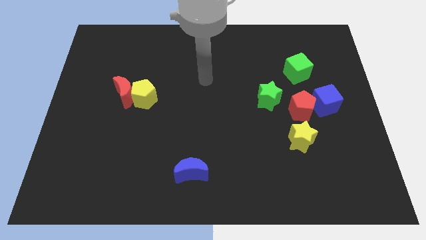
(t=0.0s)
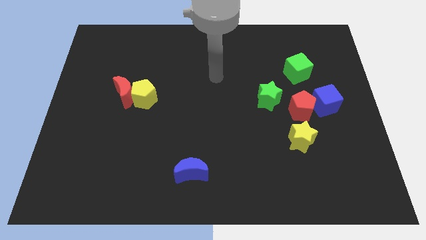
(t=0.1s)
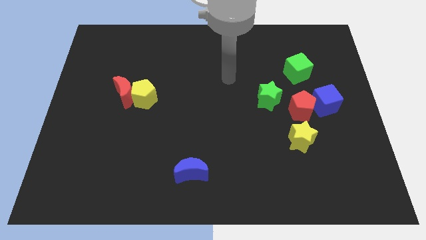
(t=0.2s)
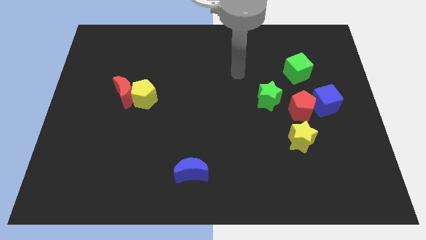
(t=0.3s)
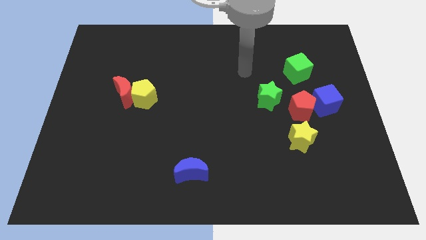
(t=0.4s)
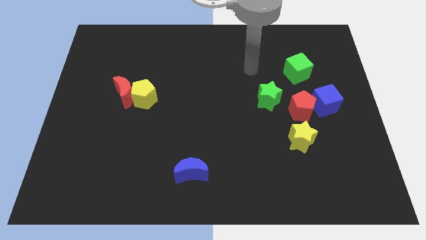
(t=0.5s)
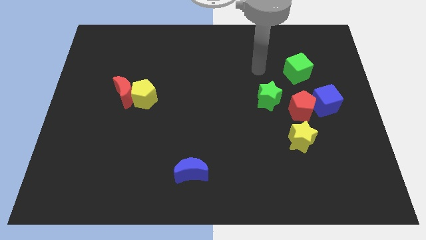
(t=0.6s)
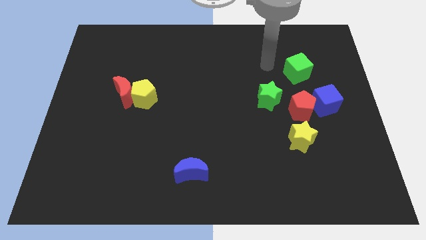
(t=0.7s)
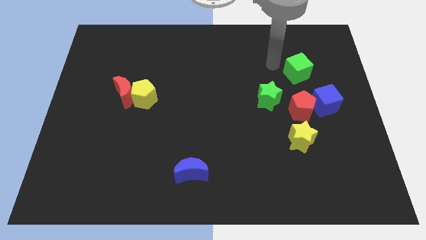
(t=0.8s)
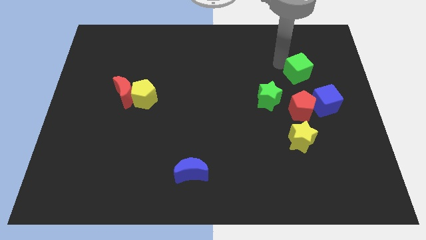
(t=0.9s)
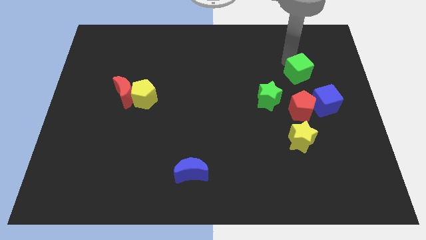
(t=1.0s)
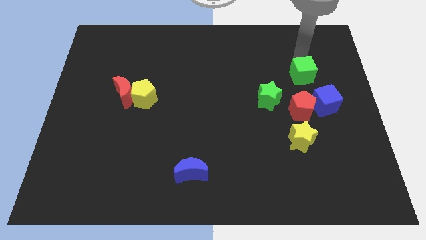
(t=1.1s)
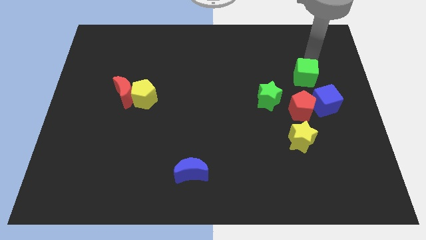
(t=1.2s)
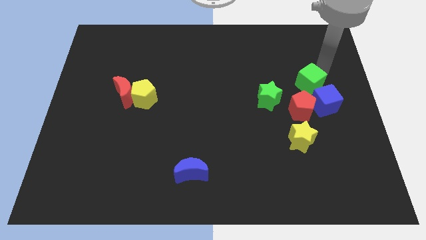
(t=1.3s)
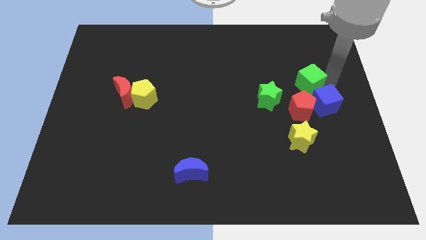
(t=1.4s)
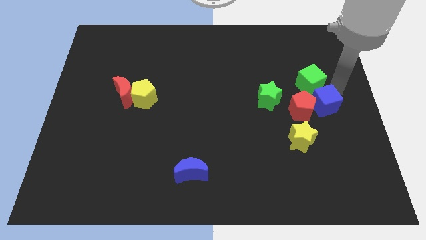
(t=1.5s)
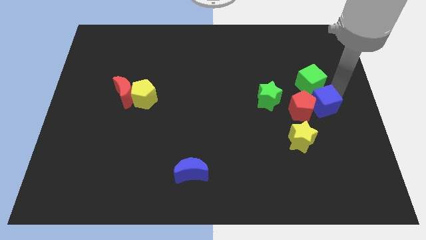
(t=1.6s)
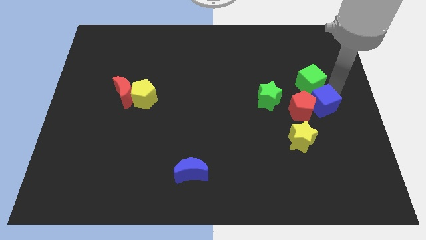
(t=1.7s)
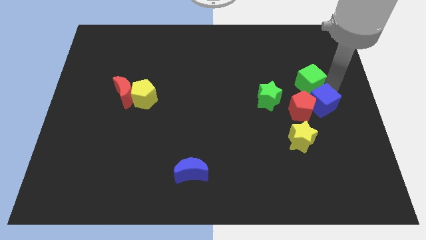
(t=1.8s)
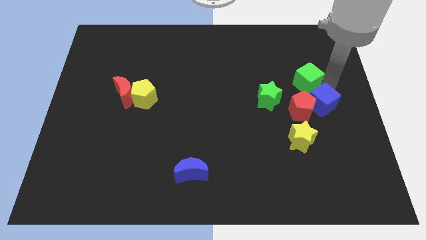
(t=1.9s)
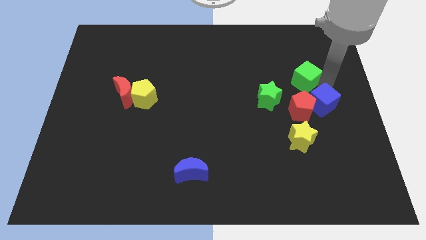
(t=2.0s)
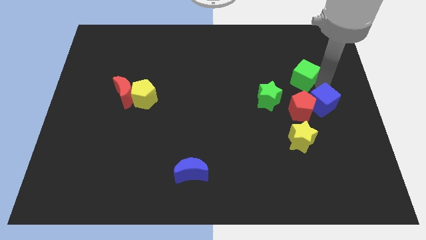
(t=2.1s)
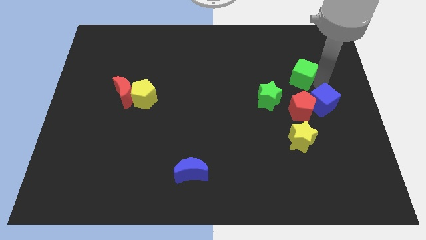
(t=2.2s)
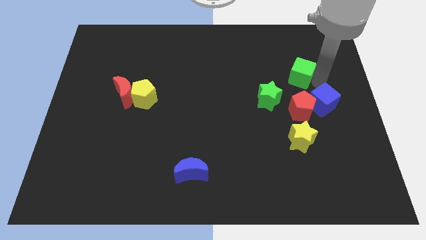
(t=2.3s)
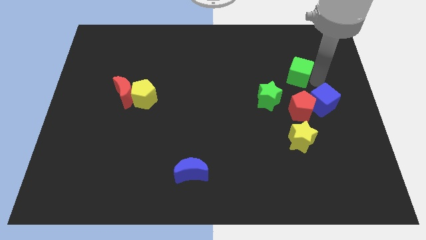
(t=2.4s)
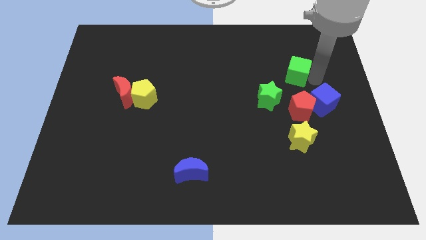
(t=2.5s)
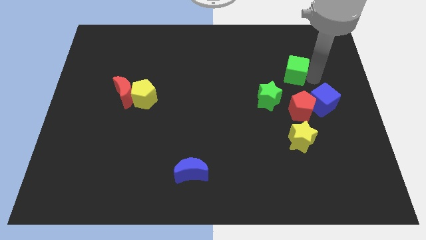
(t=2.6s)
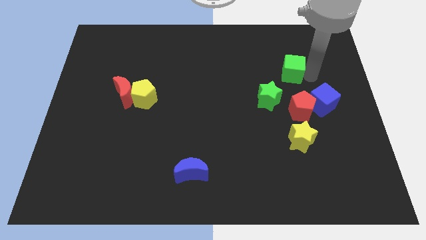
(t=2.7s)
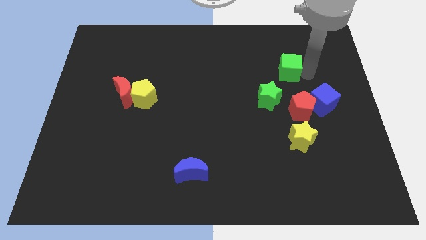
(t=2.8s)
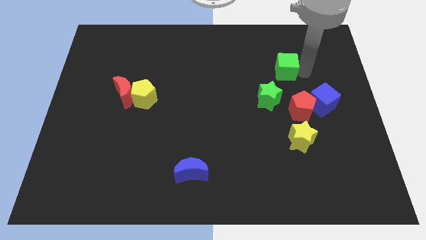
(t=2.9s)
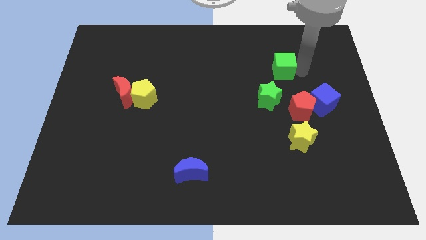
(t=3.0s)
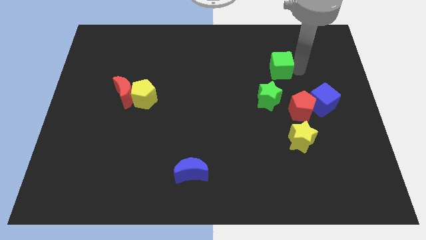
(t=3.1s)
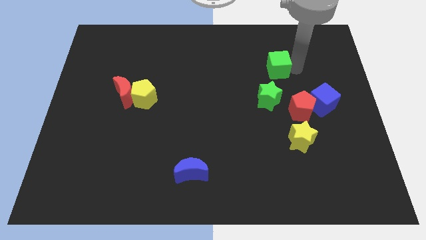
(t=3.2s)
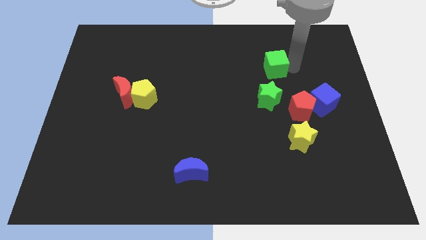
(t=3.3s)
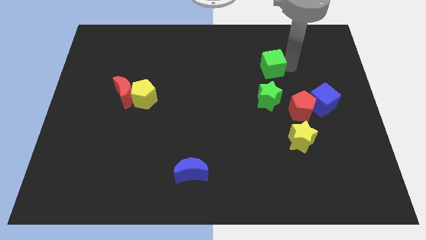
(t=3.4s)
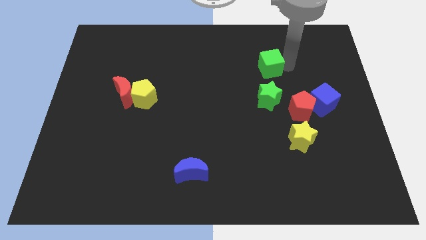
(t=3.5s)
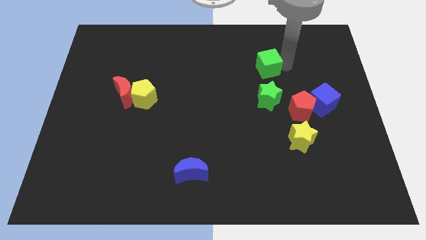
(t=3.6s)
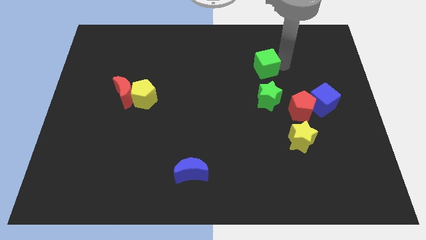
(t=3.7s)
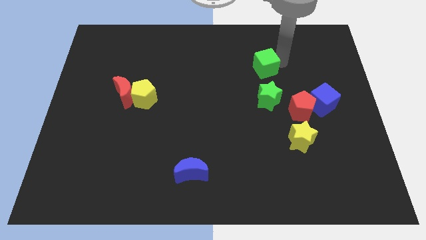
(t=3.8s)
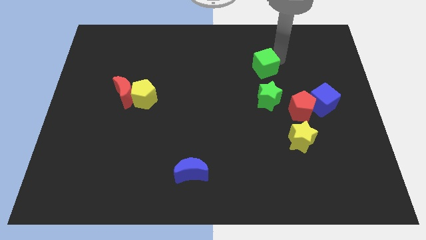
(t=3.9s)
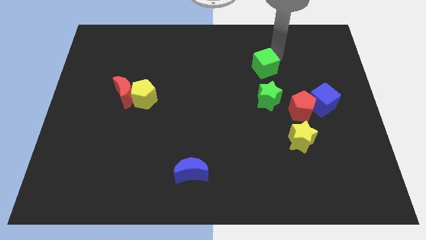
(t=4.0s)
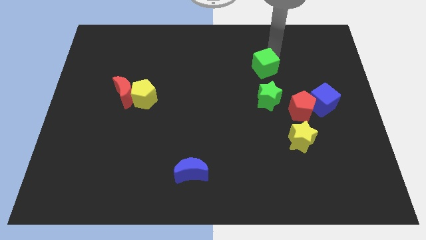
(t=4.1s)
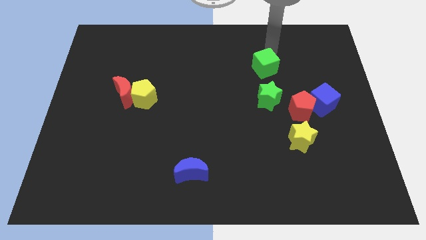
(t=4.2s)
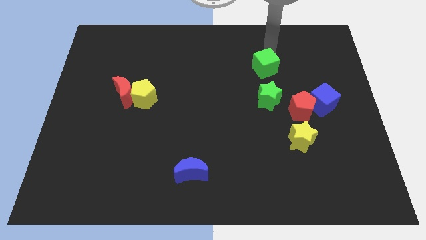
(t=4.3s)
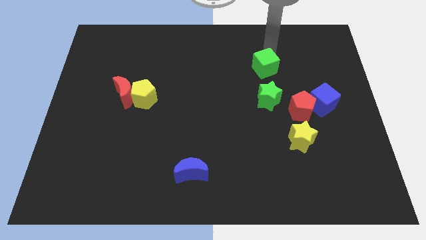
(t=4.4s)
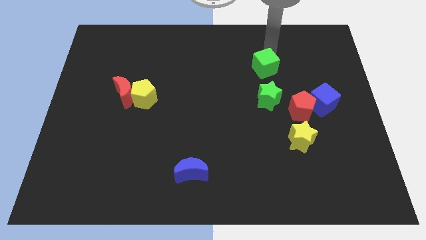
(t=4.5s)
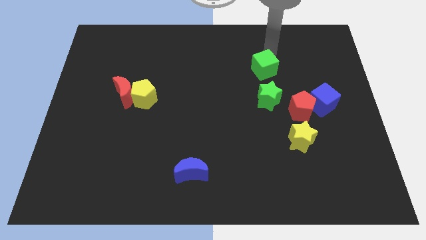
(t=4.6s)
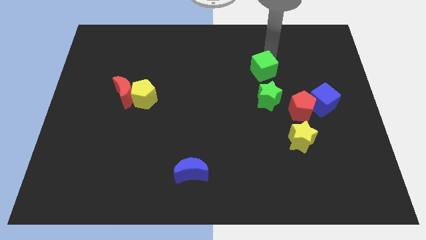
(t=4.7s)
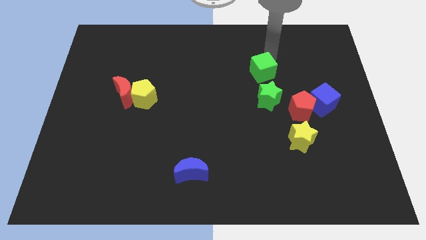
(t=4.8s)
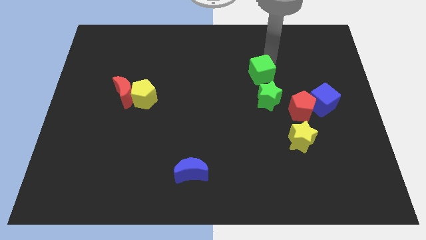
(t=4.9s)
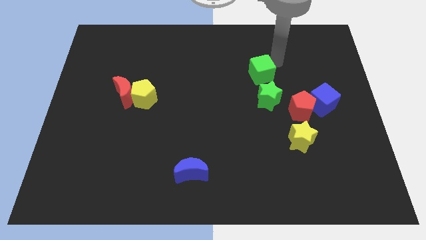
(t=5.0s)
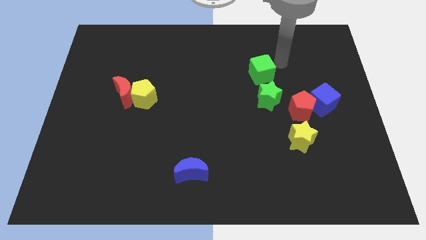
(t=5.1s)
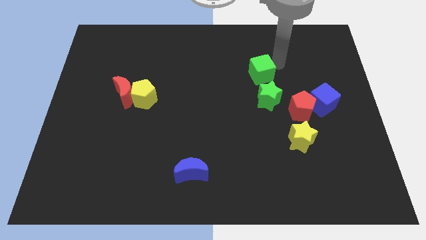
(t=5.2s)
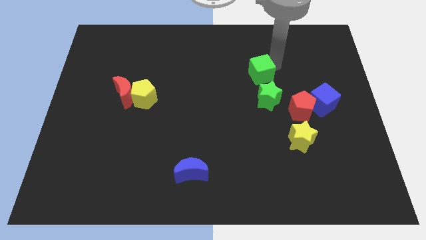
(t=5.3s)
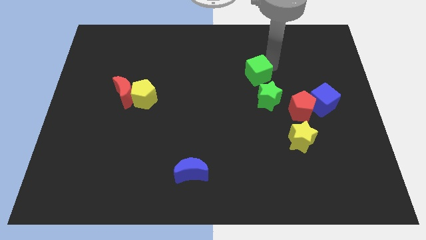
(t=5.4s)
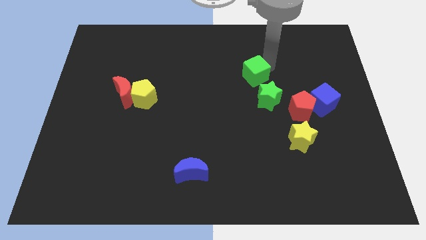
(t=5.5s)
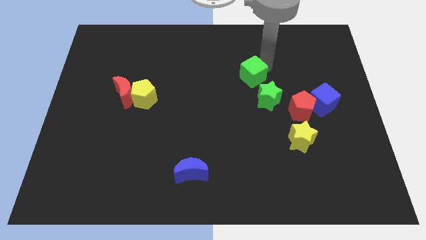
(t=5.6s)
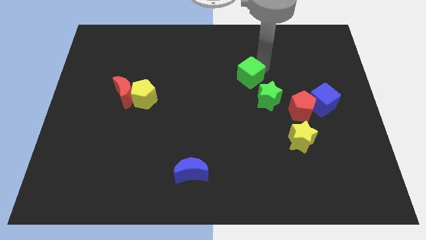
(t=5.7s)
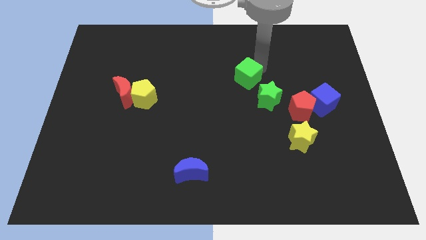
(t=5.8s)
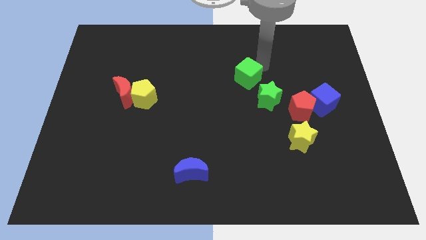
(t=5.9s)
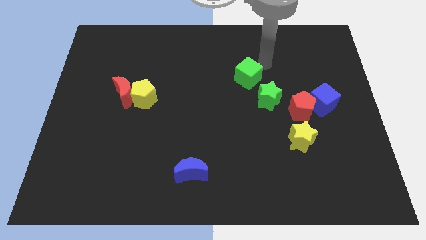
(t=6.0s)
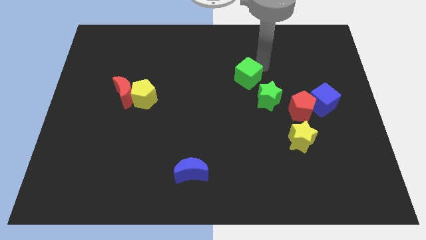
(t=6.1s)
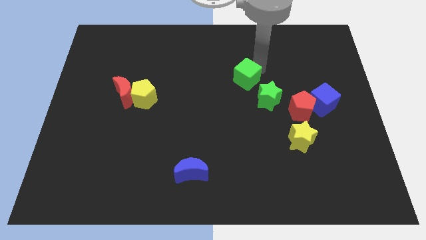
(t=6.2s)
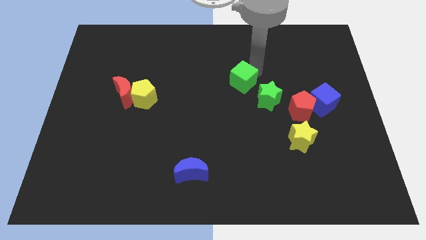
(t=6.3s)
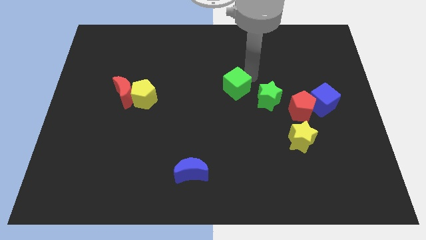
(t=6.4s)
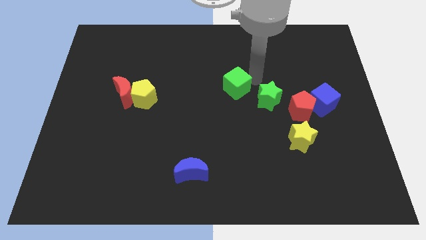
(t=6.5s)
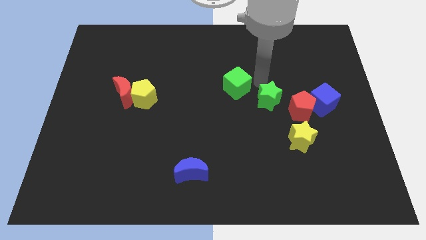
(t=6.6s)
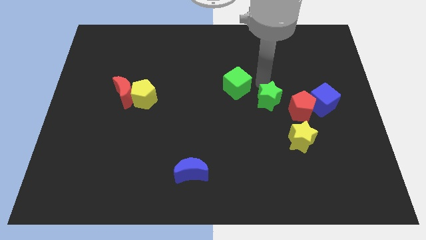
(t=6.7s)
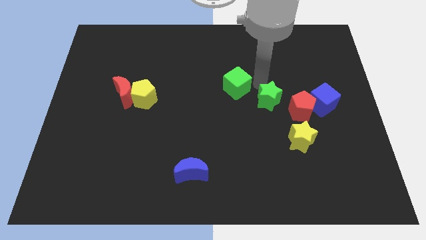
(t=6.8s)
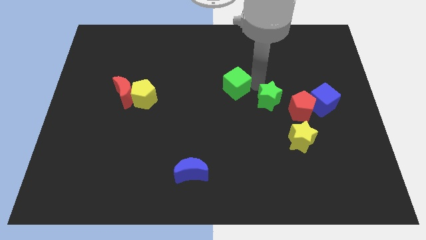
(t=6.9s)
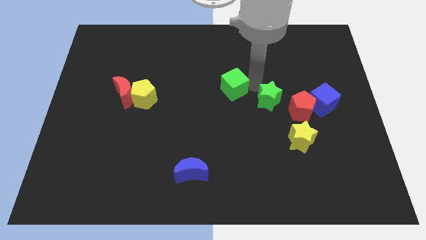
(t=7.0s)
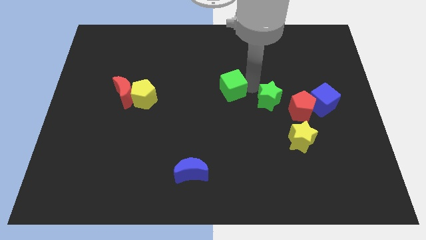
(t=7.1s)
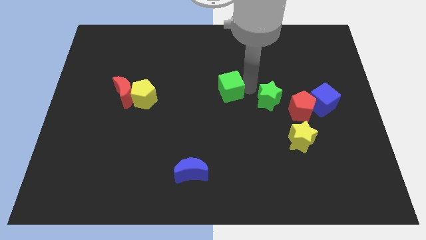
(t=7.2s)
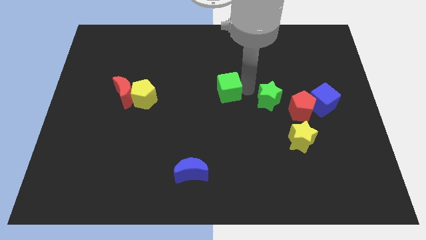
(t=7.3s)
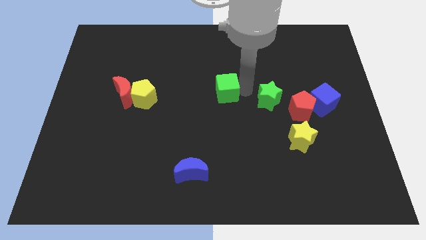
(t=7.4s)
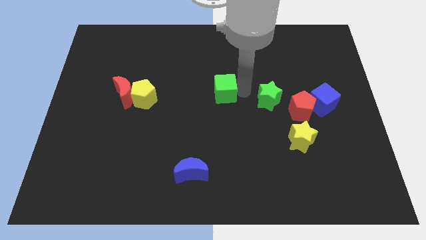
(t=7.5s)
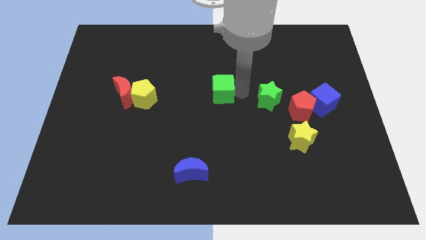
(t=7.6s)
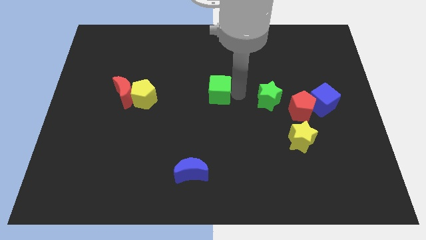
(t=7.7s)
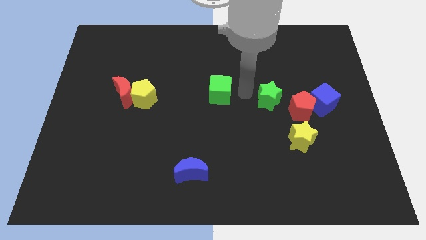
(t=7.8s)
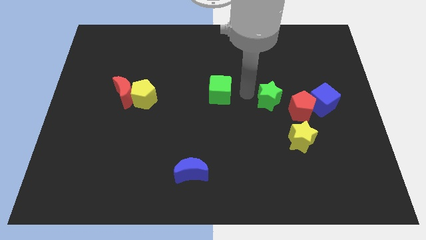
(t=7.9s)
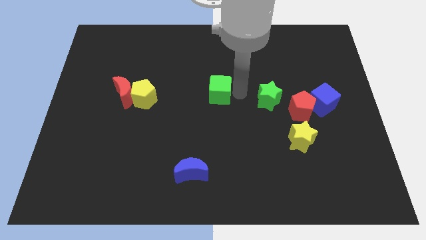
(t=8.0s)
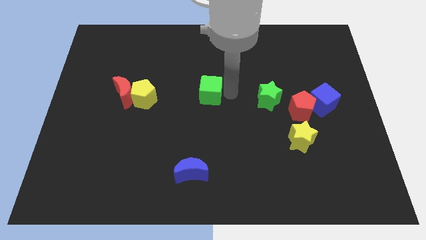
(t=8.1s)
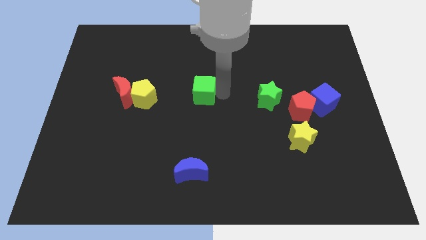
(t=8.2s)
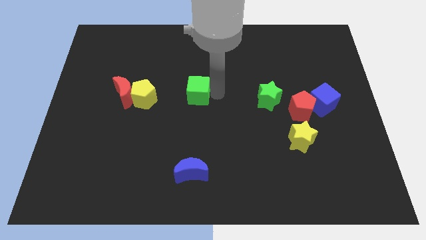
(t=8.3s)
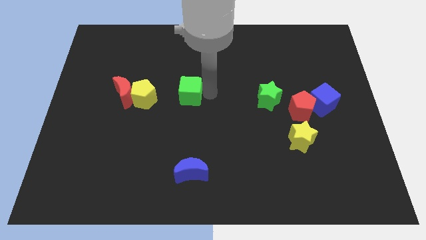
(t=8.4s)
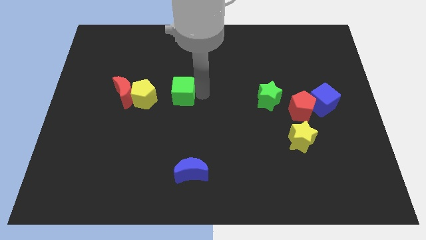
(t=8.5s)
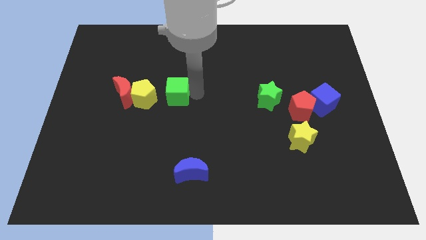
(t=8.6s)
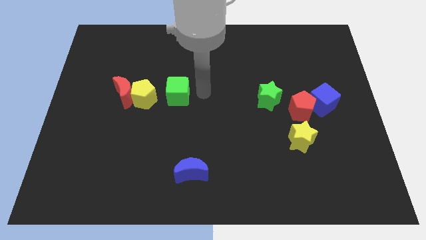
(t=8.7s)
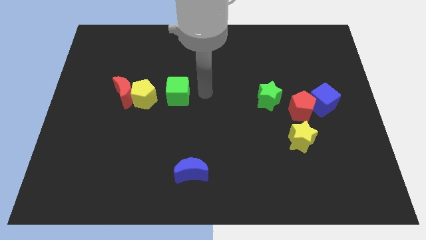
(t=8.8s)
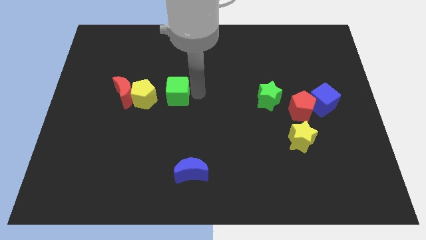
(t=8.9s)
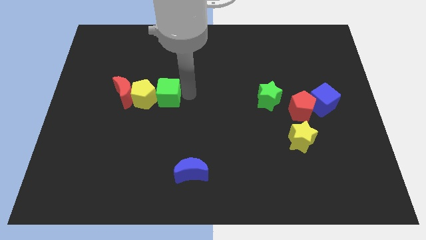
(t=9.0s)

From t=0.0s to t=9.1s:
push the green cube next to the yellow pentagon
